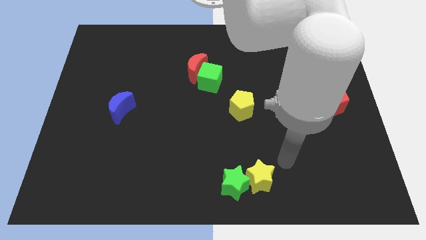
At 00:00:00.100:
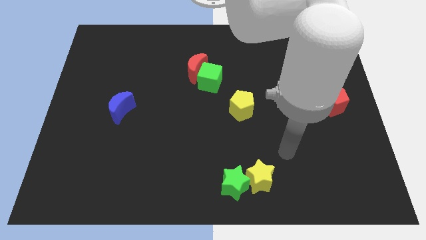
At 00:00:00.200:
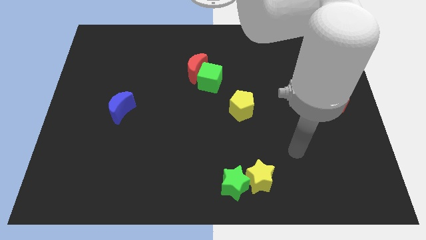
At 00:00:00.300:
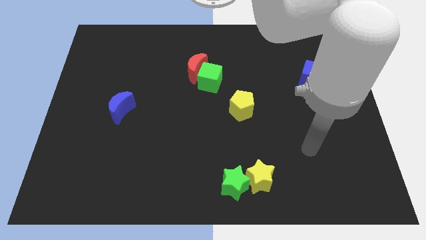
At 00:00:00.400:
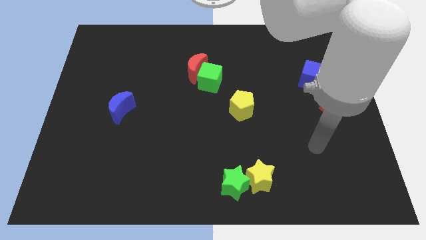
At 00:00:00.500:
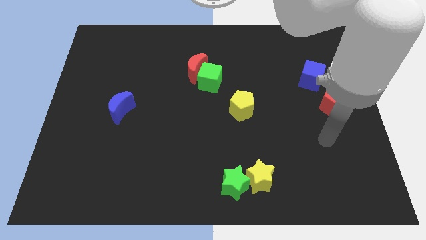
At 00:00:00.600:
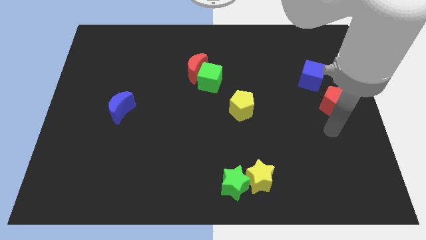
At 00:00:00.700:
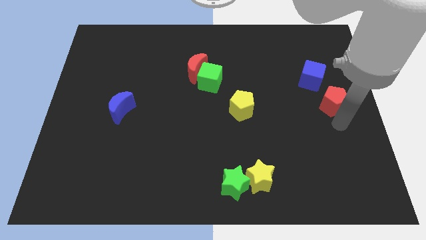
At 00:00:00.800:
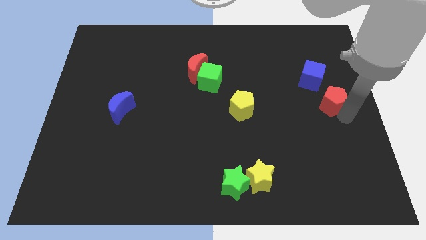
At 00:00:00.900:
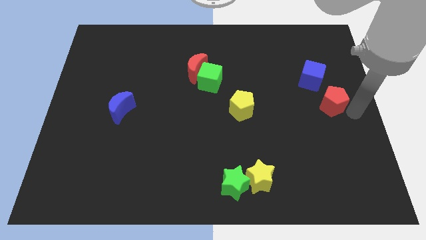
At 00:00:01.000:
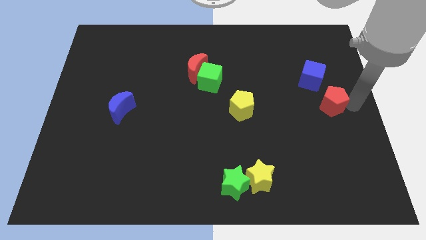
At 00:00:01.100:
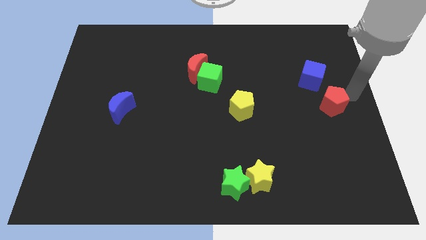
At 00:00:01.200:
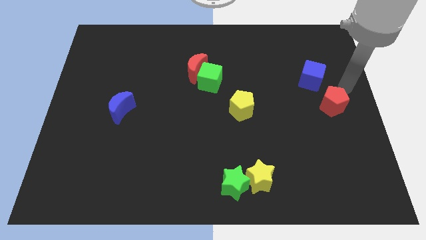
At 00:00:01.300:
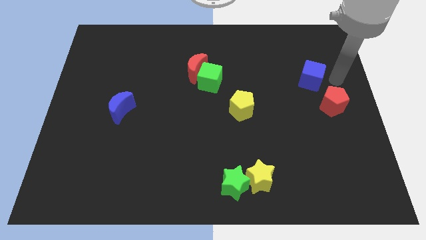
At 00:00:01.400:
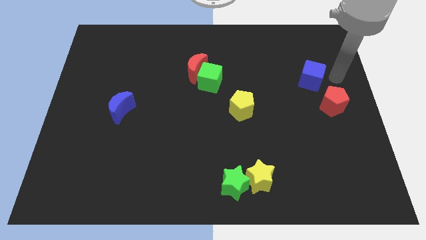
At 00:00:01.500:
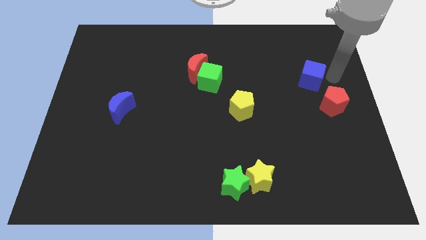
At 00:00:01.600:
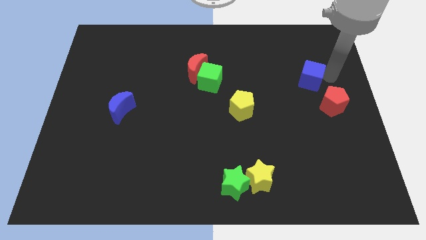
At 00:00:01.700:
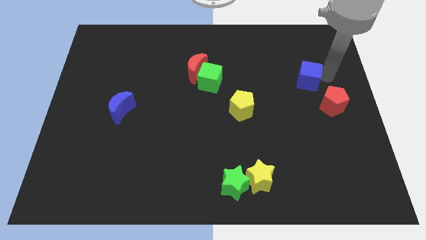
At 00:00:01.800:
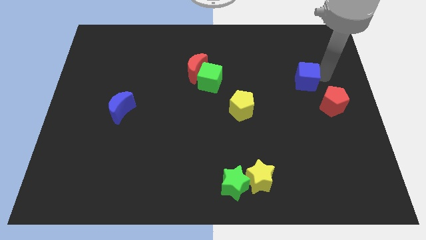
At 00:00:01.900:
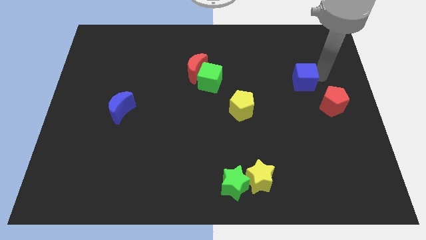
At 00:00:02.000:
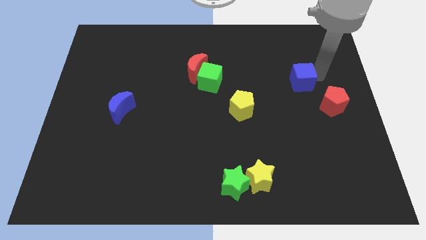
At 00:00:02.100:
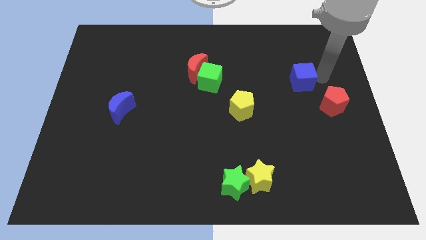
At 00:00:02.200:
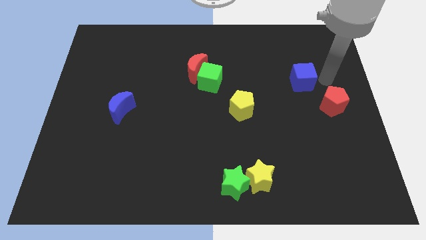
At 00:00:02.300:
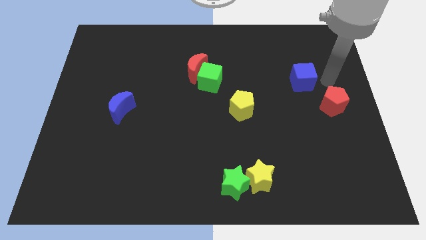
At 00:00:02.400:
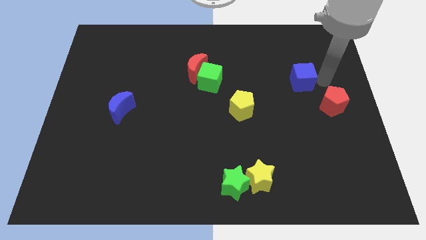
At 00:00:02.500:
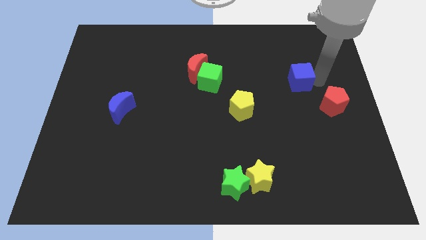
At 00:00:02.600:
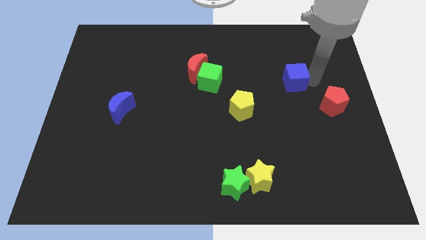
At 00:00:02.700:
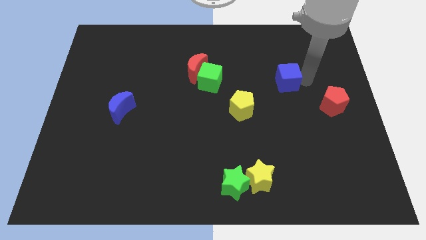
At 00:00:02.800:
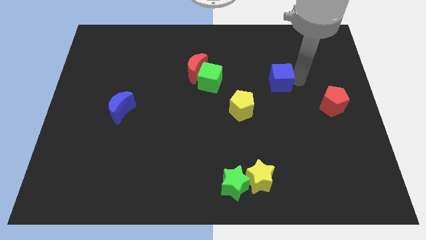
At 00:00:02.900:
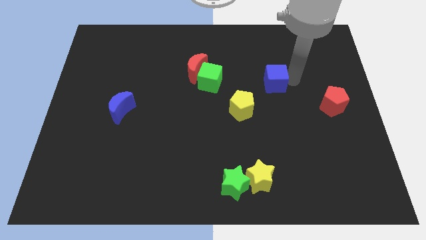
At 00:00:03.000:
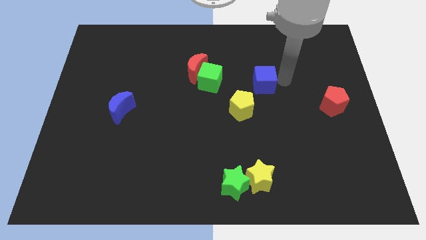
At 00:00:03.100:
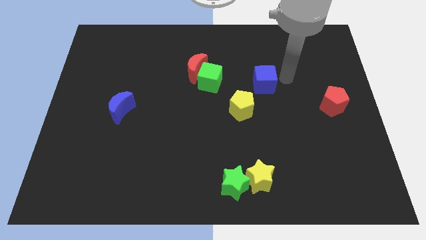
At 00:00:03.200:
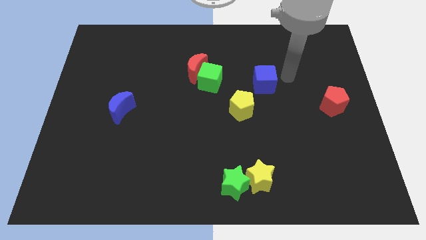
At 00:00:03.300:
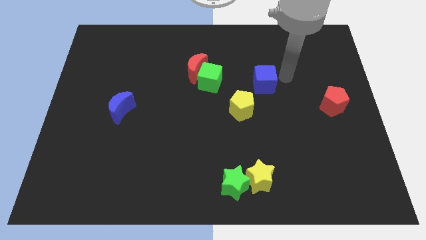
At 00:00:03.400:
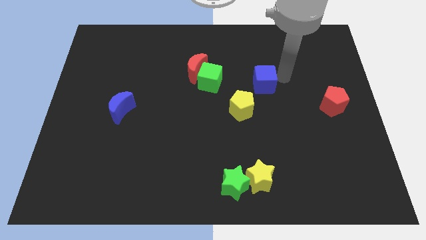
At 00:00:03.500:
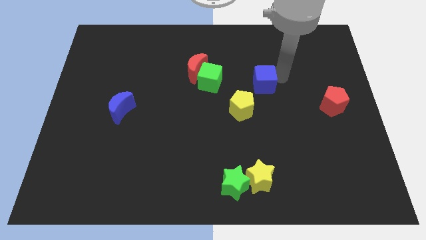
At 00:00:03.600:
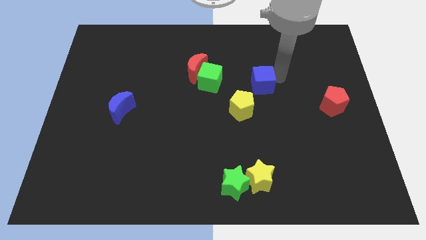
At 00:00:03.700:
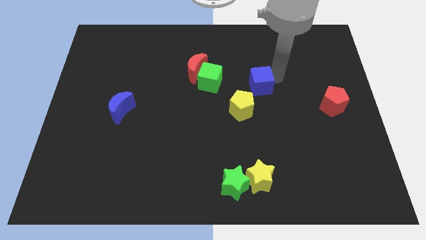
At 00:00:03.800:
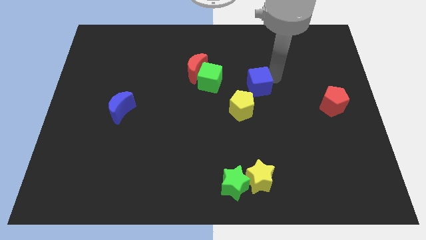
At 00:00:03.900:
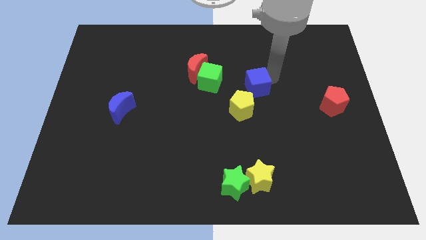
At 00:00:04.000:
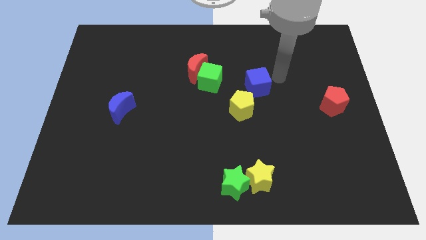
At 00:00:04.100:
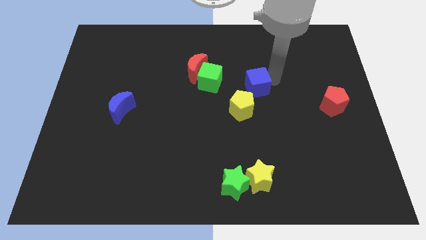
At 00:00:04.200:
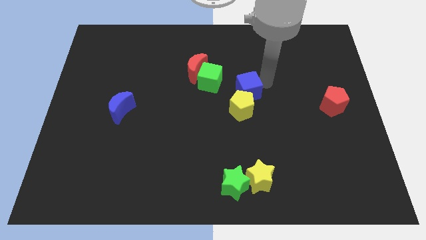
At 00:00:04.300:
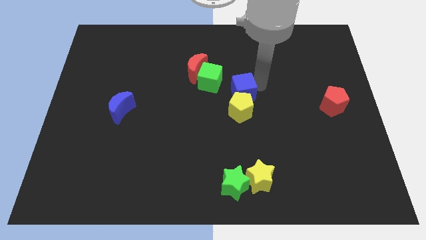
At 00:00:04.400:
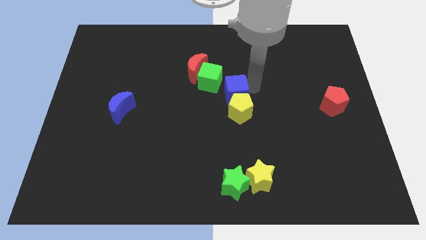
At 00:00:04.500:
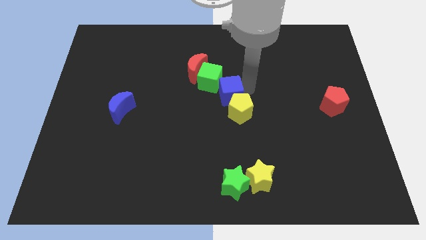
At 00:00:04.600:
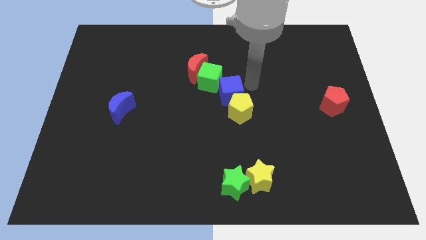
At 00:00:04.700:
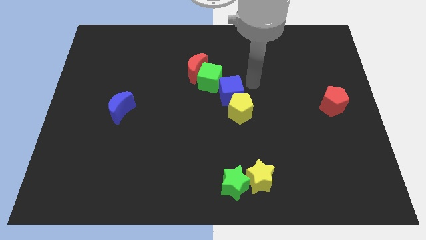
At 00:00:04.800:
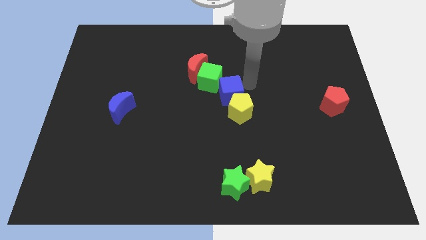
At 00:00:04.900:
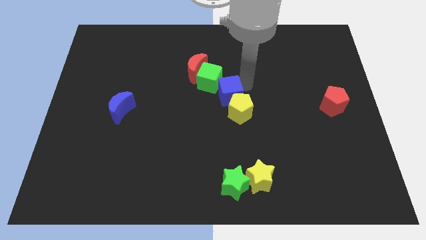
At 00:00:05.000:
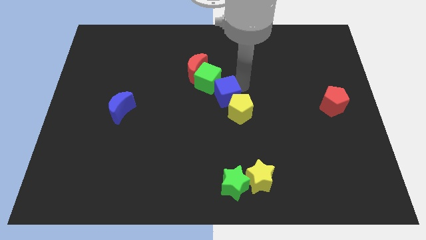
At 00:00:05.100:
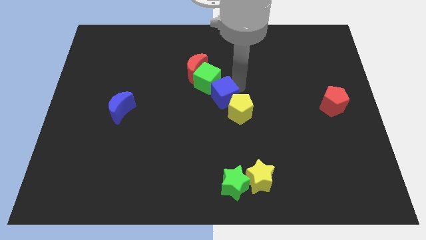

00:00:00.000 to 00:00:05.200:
move the blue cube just left of the yellow pentagon

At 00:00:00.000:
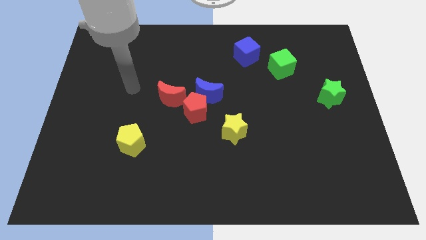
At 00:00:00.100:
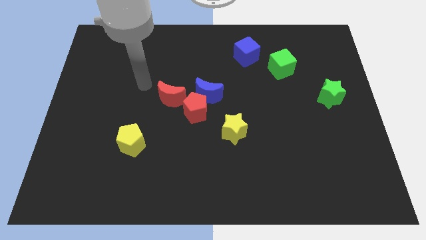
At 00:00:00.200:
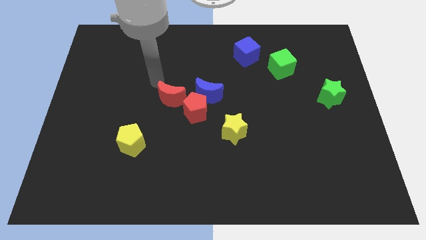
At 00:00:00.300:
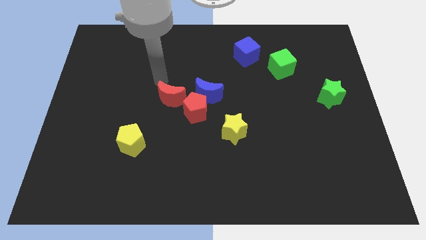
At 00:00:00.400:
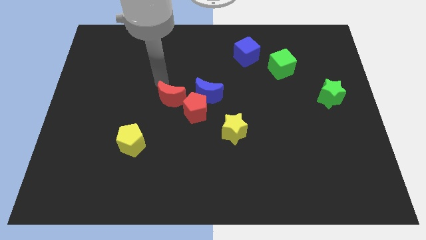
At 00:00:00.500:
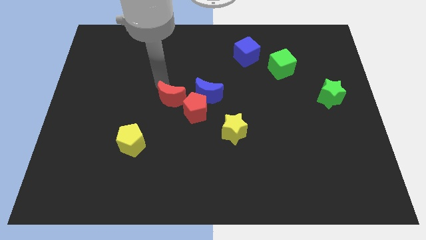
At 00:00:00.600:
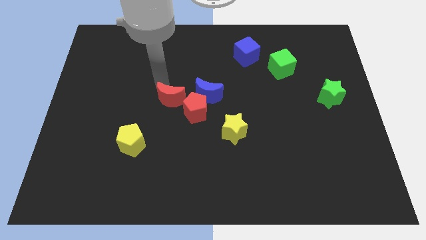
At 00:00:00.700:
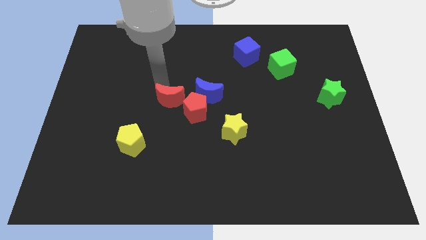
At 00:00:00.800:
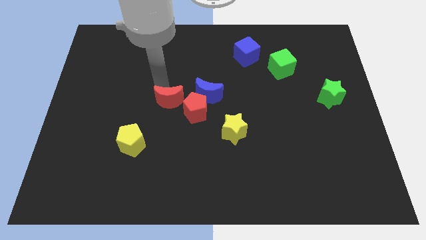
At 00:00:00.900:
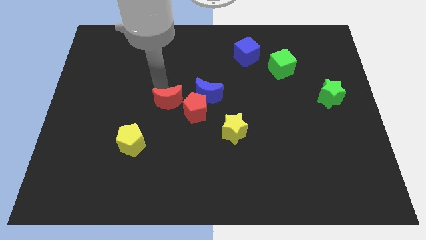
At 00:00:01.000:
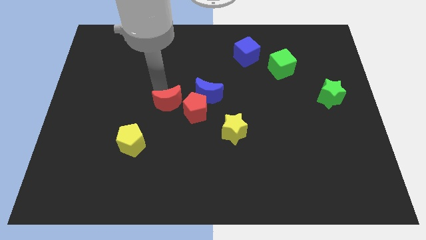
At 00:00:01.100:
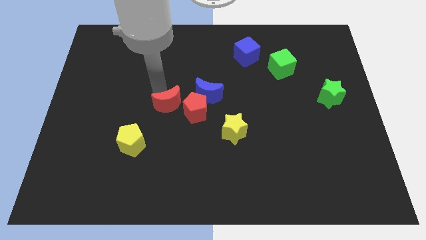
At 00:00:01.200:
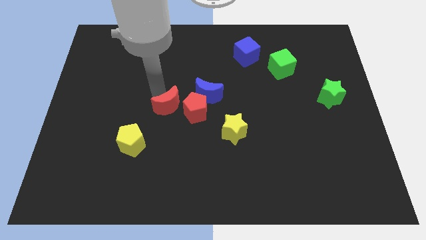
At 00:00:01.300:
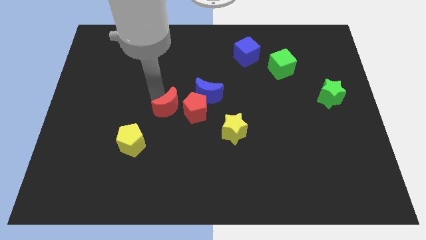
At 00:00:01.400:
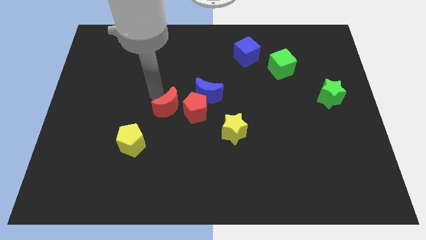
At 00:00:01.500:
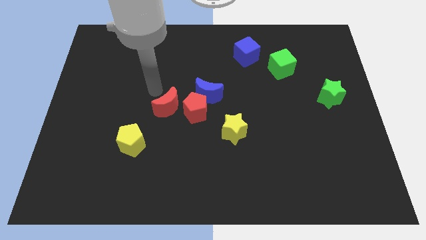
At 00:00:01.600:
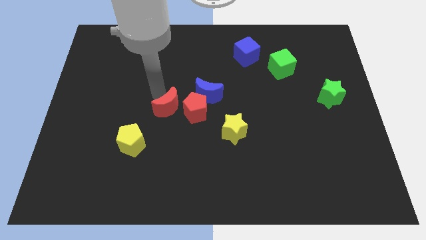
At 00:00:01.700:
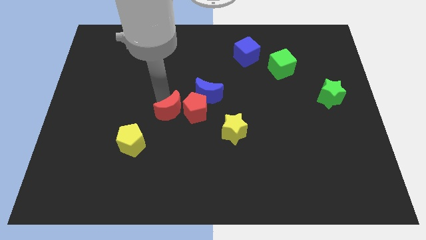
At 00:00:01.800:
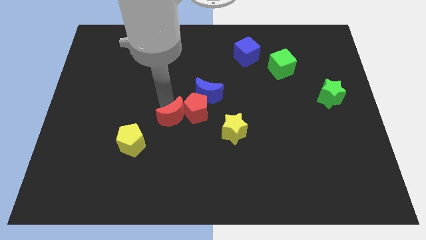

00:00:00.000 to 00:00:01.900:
push the red moon to the left of the yellow star
